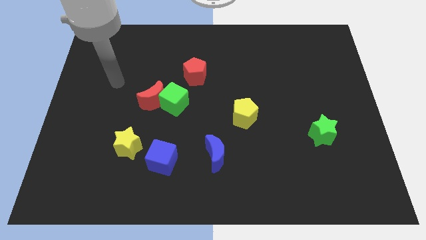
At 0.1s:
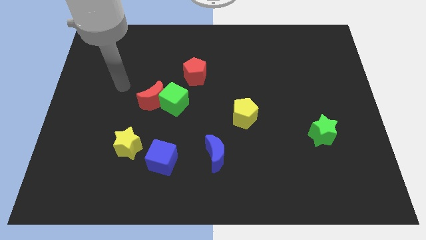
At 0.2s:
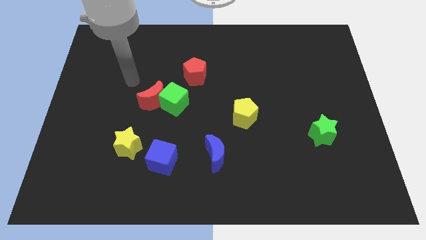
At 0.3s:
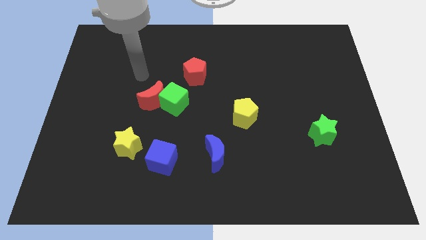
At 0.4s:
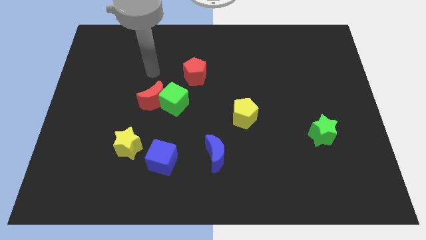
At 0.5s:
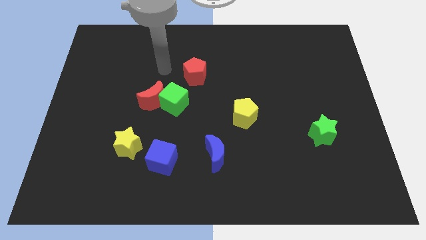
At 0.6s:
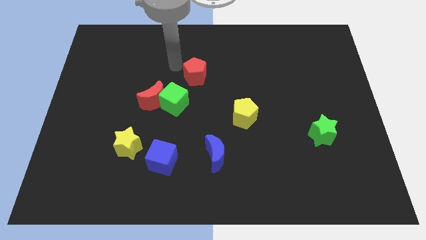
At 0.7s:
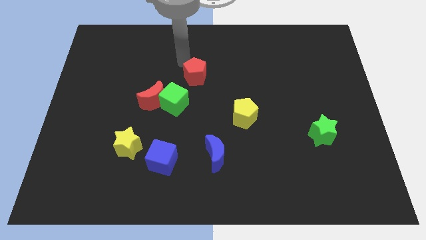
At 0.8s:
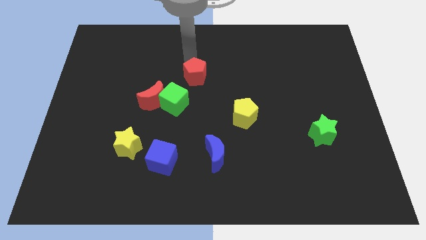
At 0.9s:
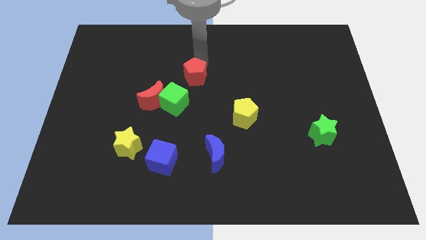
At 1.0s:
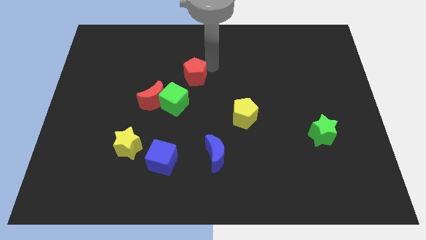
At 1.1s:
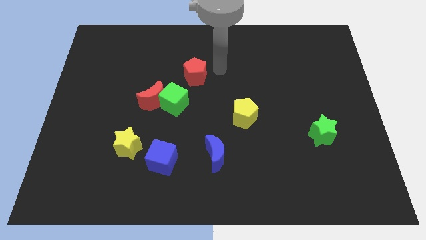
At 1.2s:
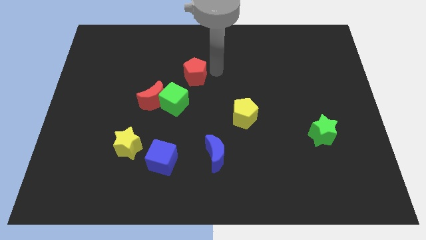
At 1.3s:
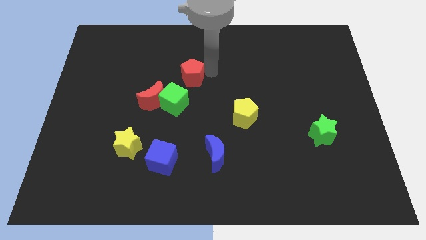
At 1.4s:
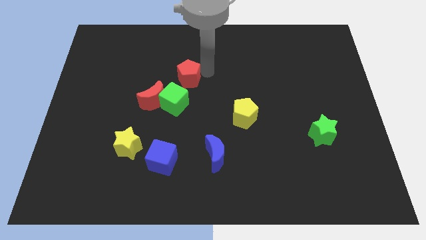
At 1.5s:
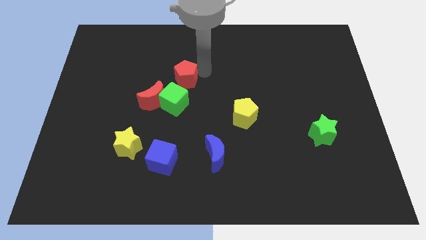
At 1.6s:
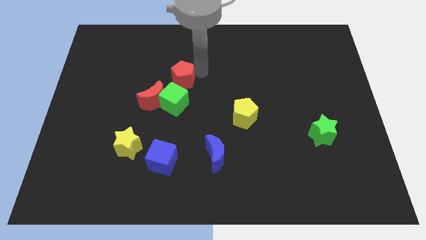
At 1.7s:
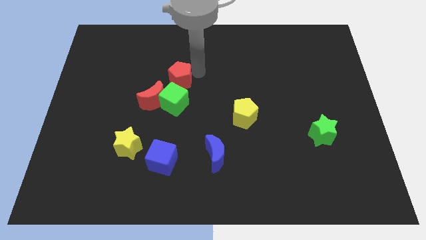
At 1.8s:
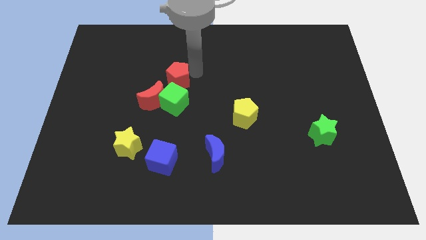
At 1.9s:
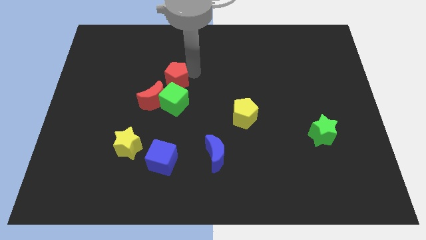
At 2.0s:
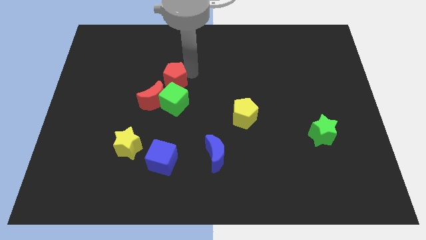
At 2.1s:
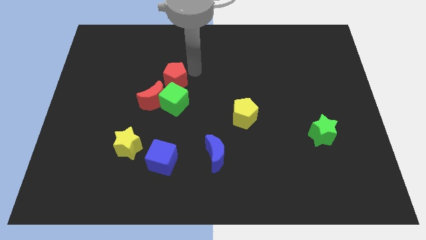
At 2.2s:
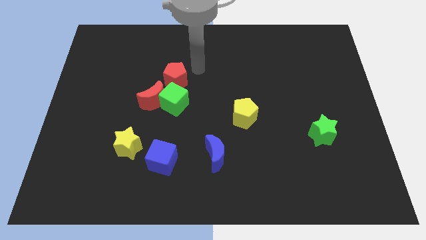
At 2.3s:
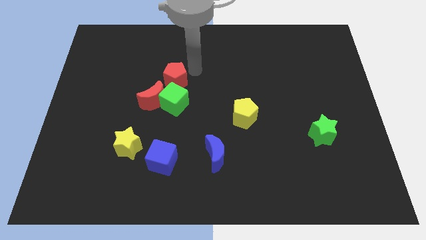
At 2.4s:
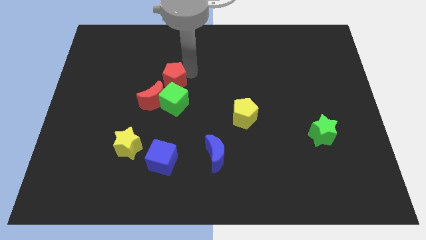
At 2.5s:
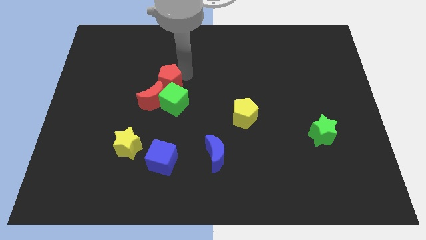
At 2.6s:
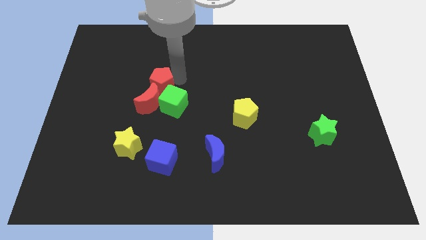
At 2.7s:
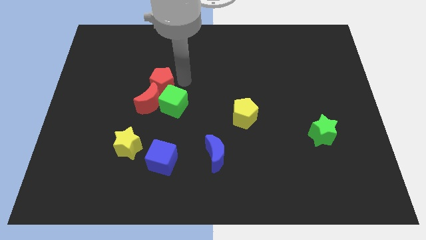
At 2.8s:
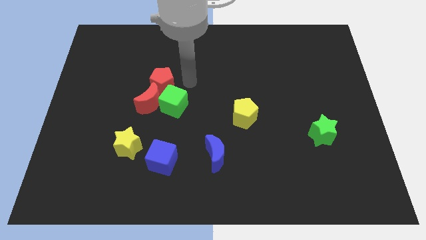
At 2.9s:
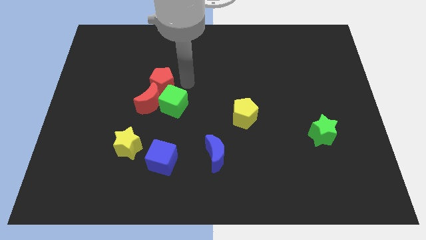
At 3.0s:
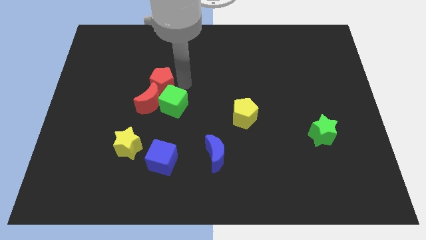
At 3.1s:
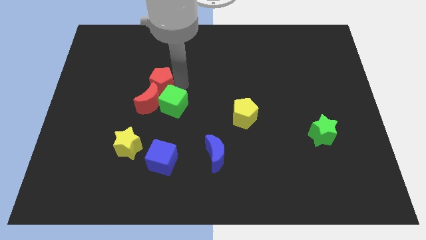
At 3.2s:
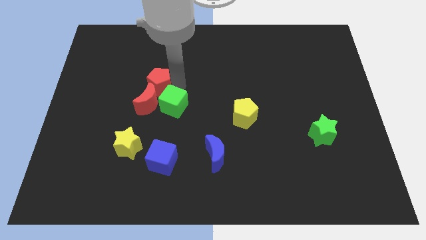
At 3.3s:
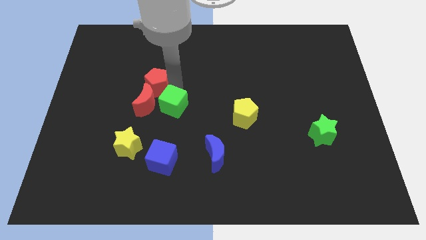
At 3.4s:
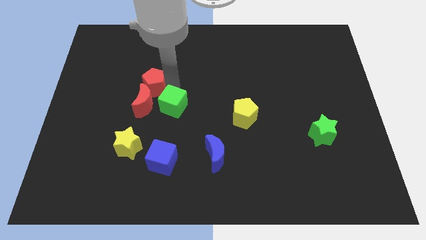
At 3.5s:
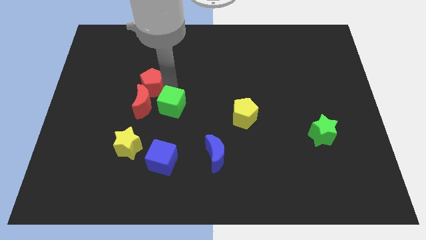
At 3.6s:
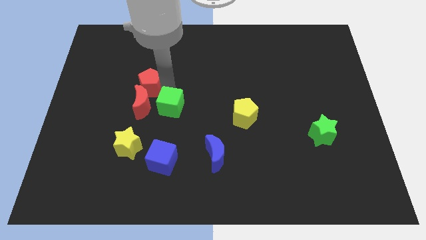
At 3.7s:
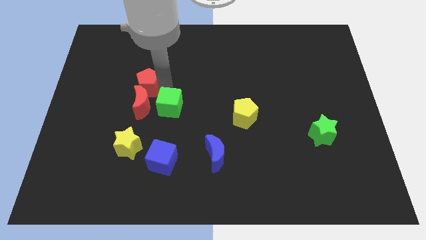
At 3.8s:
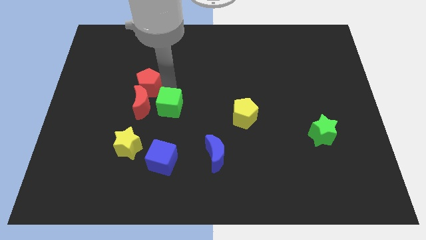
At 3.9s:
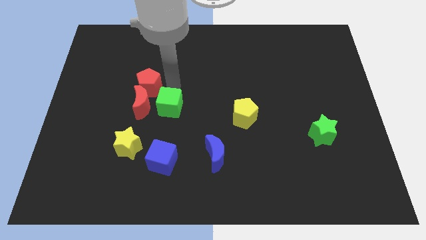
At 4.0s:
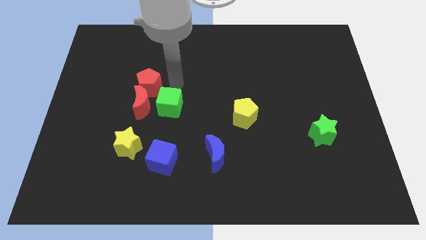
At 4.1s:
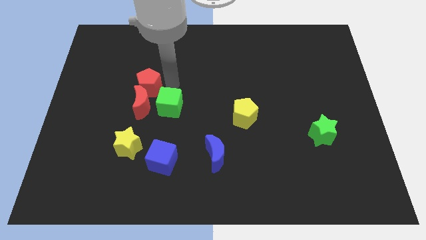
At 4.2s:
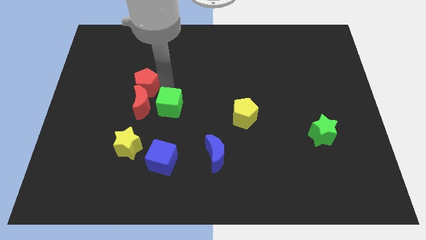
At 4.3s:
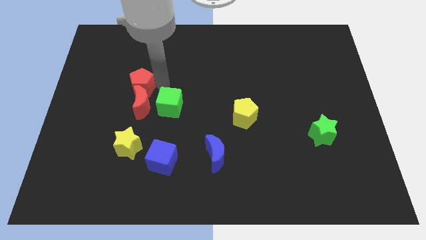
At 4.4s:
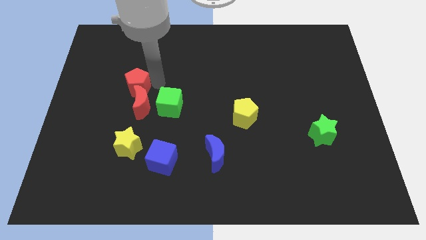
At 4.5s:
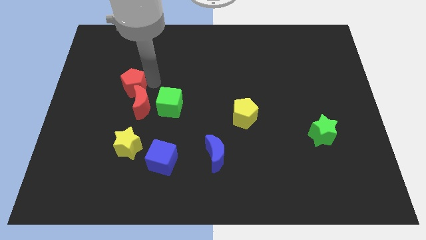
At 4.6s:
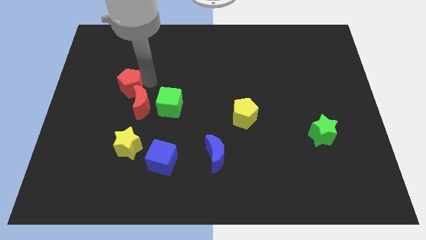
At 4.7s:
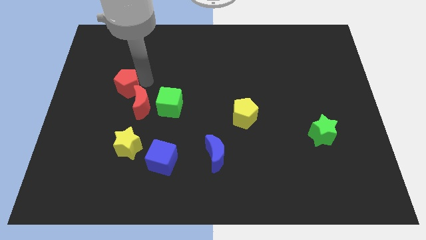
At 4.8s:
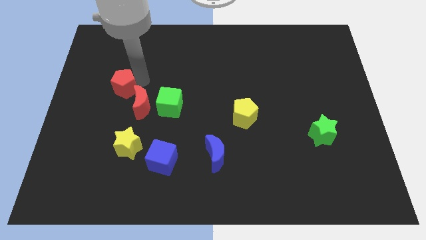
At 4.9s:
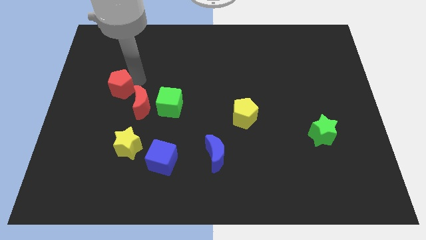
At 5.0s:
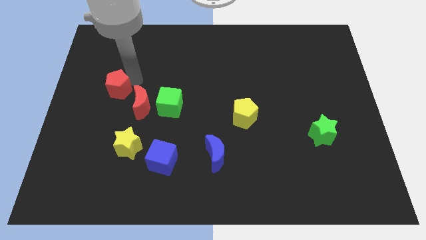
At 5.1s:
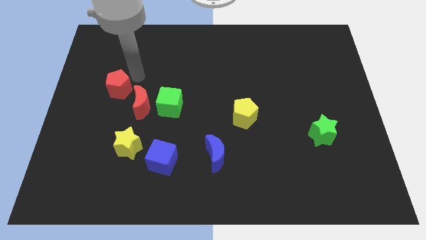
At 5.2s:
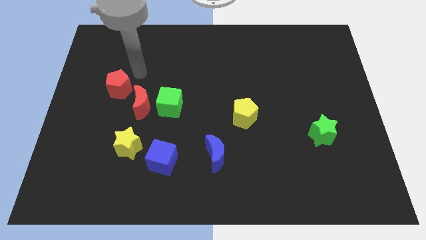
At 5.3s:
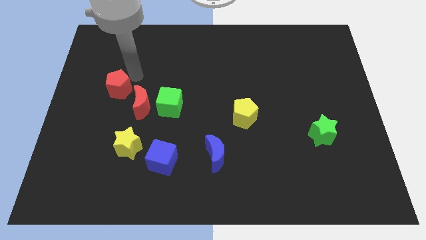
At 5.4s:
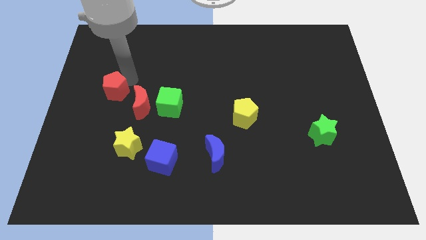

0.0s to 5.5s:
put the red pentagon to the left side of the red moon
